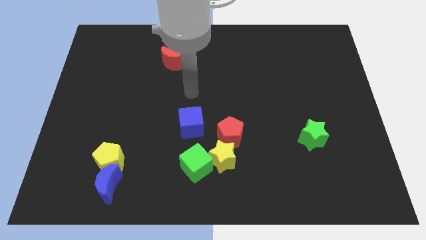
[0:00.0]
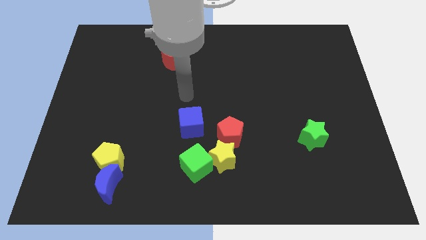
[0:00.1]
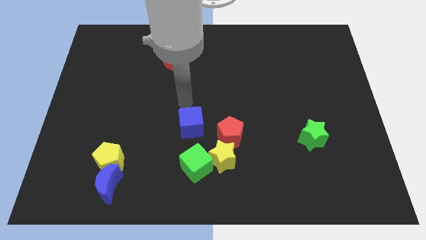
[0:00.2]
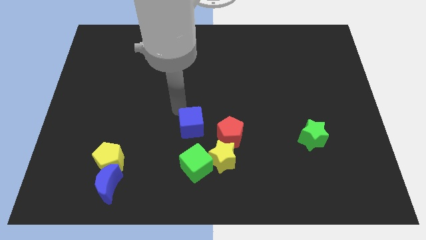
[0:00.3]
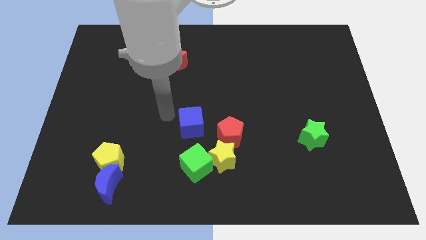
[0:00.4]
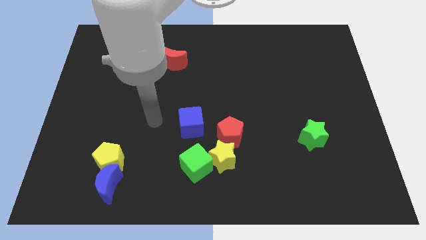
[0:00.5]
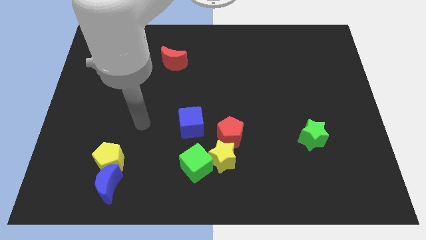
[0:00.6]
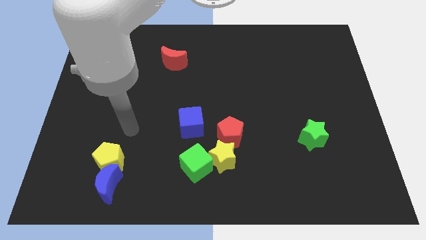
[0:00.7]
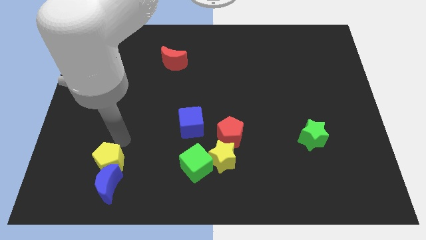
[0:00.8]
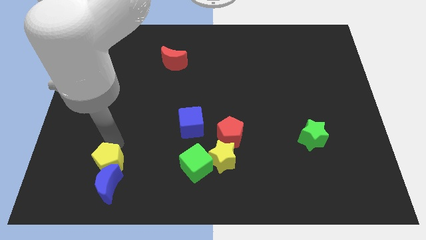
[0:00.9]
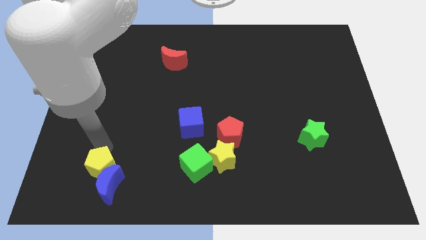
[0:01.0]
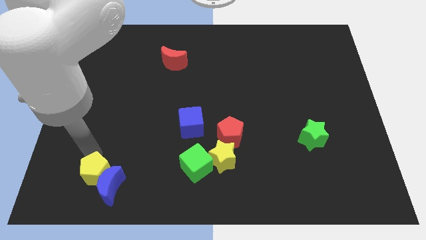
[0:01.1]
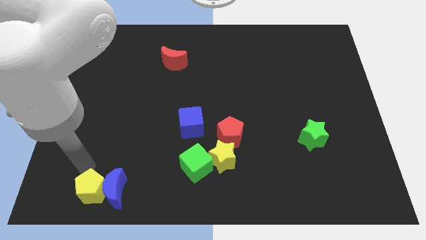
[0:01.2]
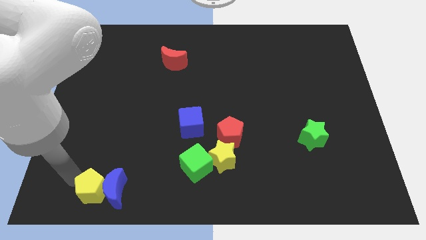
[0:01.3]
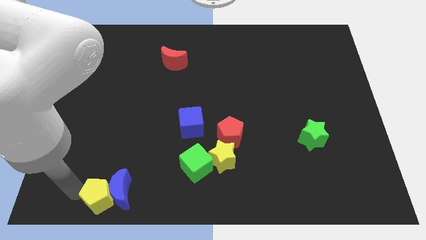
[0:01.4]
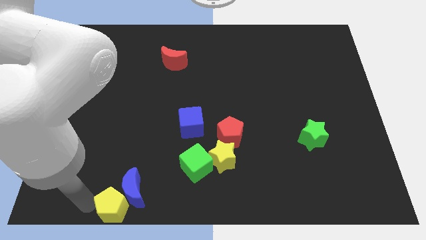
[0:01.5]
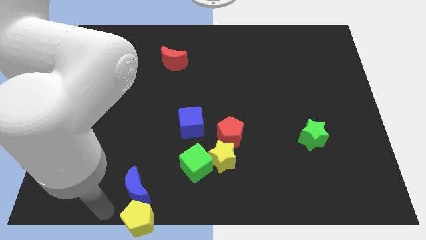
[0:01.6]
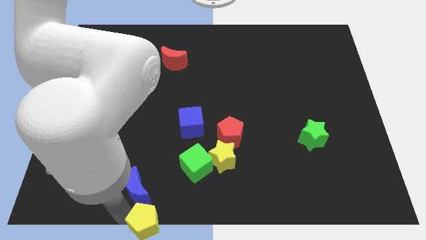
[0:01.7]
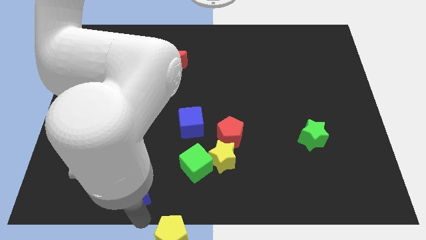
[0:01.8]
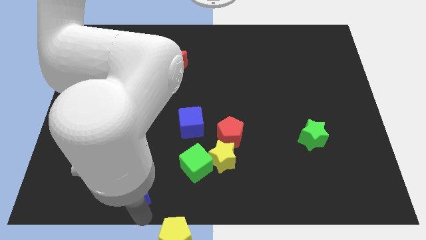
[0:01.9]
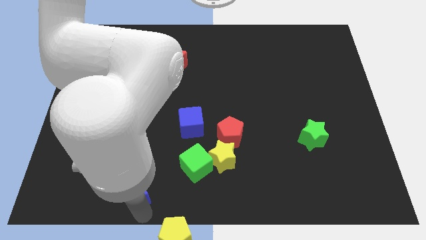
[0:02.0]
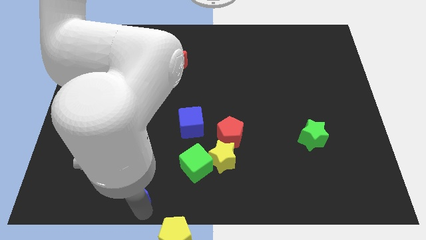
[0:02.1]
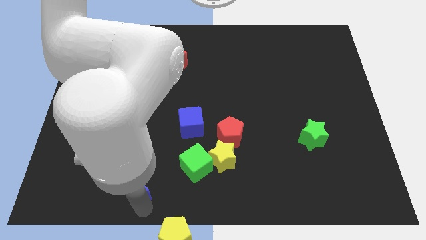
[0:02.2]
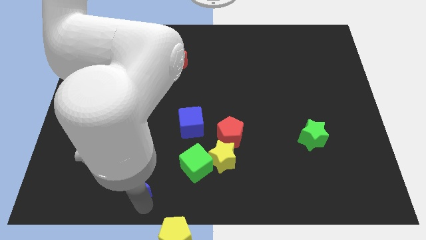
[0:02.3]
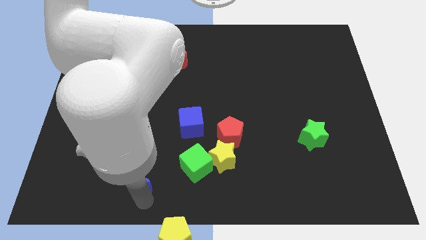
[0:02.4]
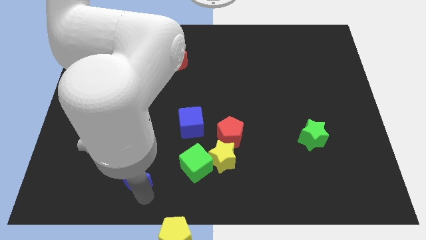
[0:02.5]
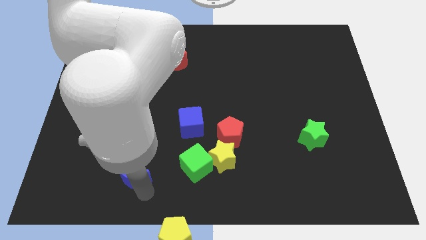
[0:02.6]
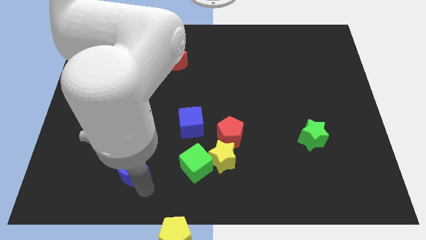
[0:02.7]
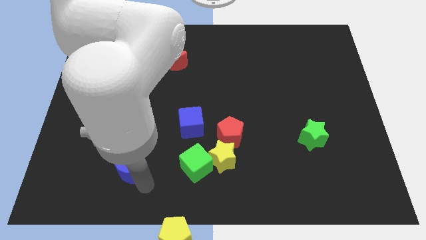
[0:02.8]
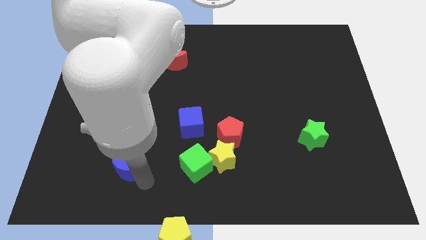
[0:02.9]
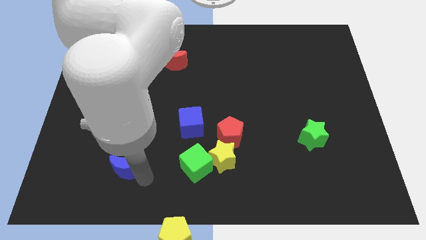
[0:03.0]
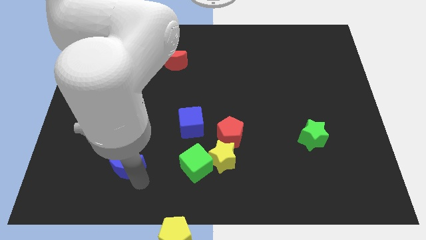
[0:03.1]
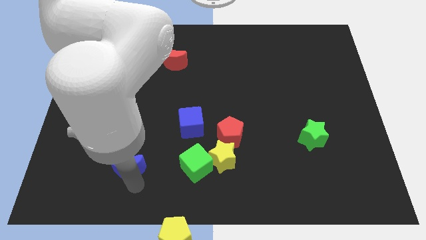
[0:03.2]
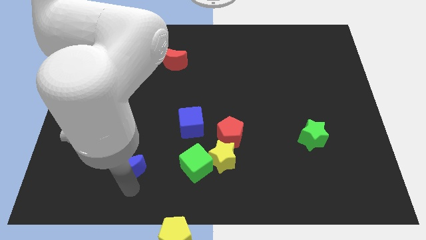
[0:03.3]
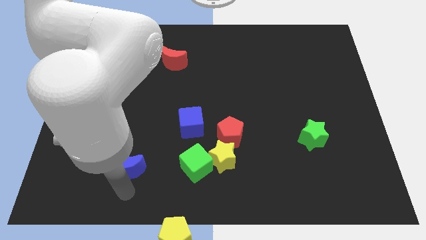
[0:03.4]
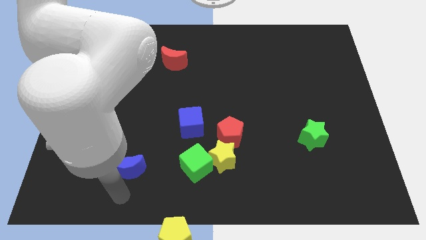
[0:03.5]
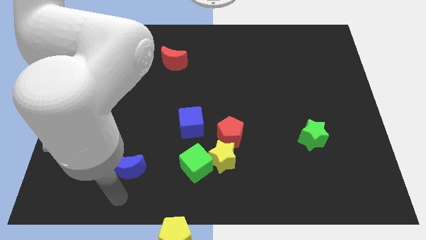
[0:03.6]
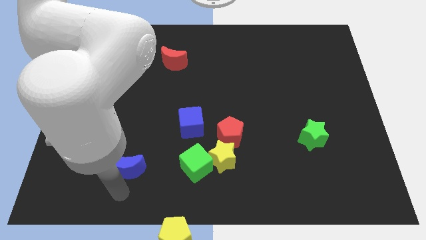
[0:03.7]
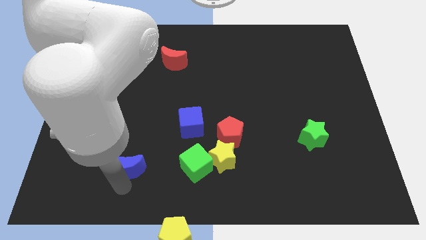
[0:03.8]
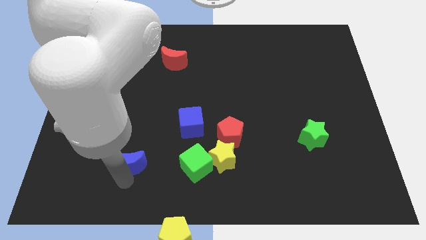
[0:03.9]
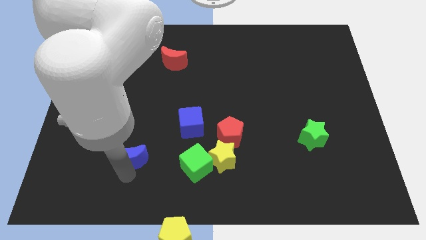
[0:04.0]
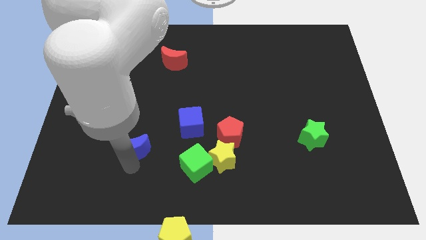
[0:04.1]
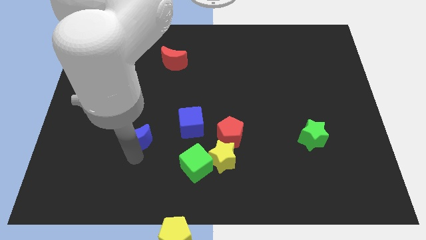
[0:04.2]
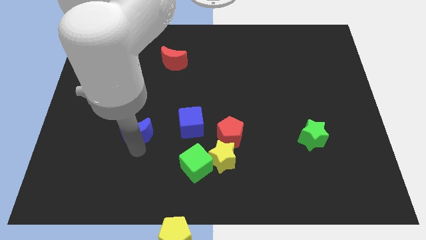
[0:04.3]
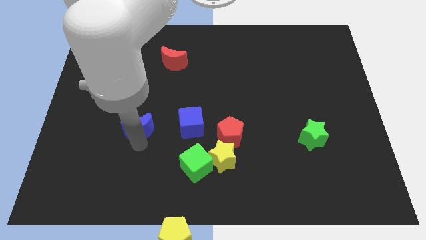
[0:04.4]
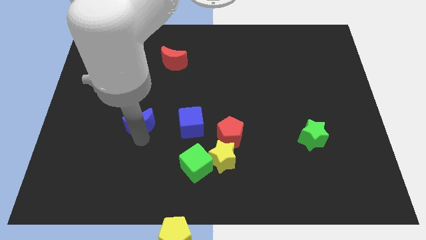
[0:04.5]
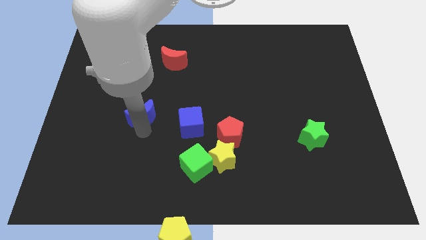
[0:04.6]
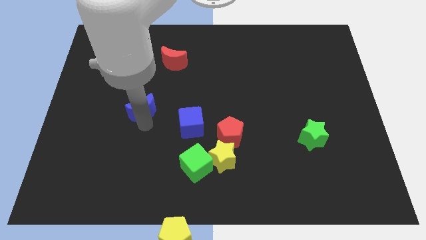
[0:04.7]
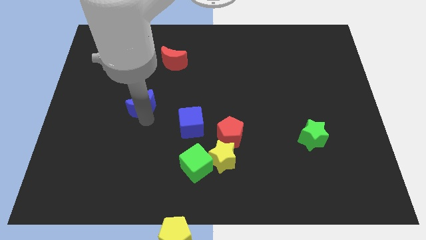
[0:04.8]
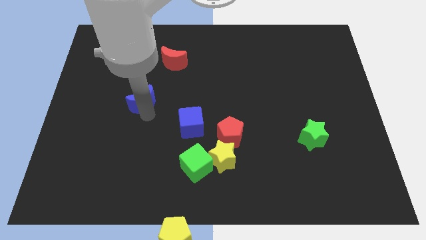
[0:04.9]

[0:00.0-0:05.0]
slide the blue moon upwards

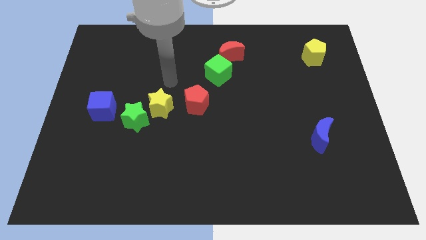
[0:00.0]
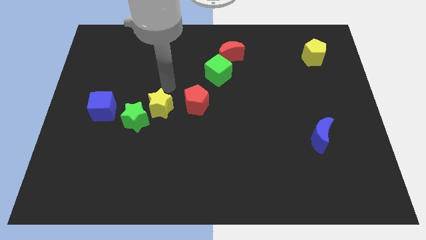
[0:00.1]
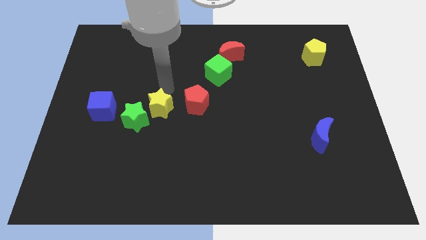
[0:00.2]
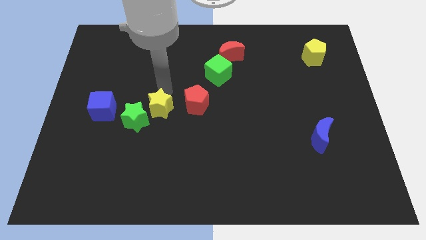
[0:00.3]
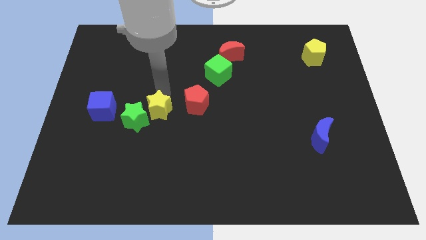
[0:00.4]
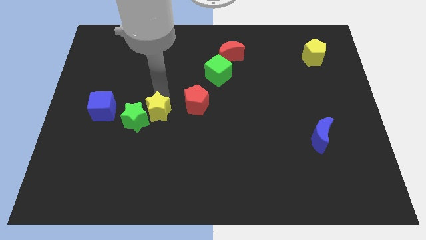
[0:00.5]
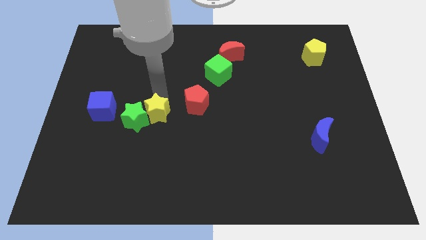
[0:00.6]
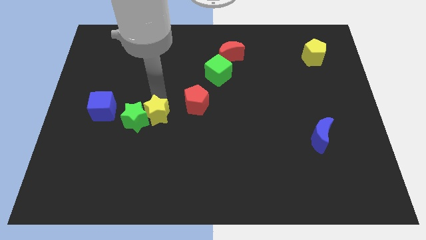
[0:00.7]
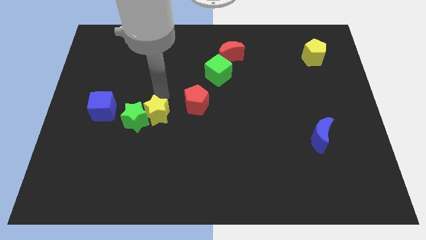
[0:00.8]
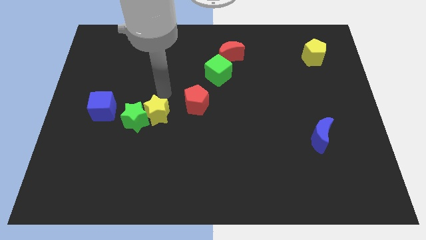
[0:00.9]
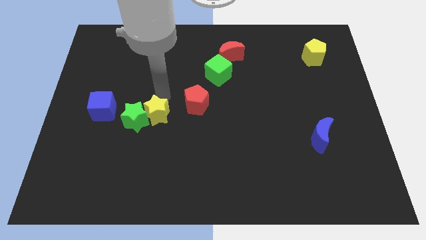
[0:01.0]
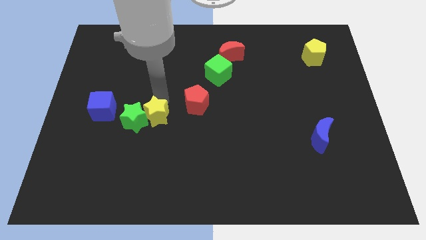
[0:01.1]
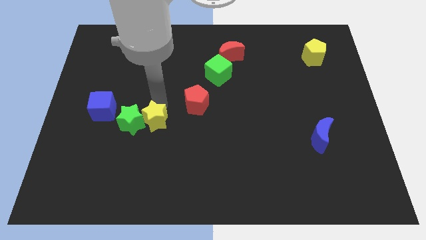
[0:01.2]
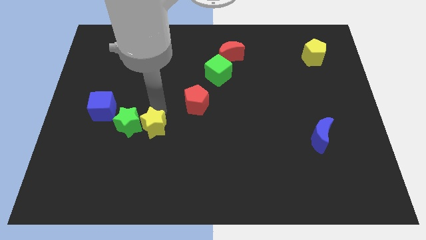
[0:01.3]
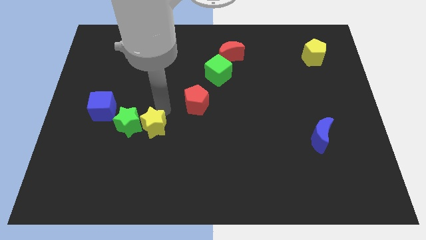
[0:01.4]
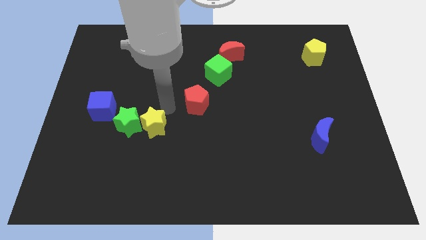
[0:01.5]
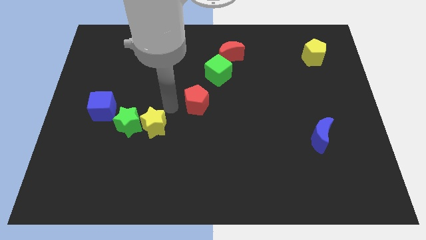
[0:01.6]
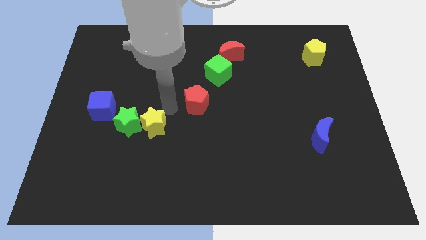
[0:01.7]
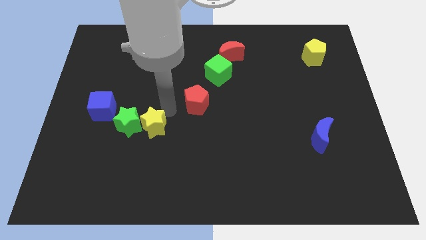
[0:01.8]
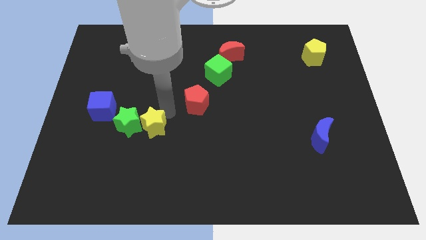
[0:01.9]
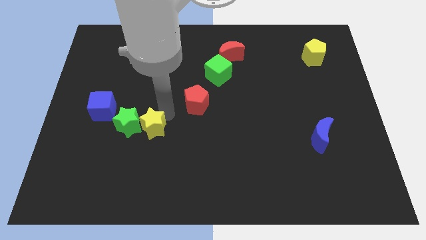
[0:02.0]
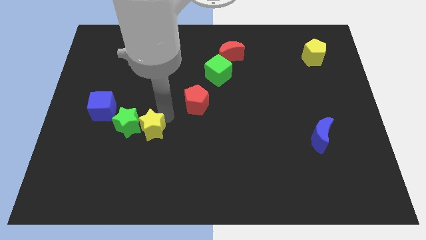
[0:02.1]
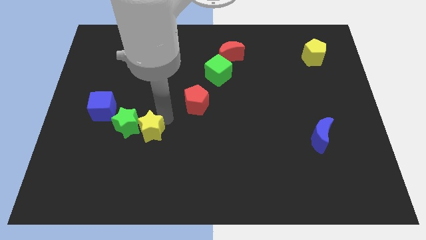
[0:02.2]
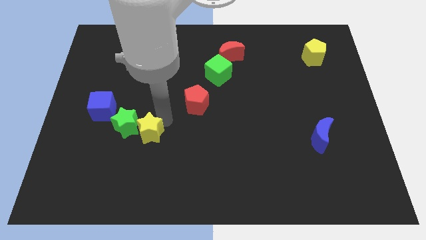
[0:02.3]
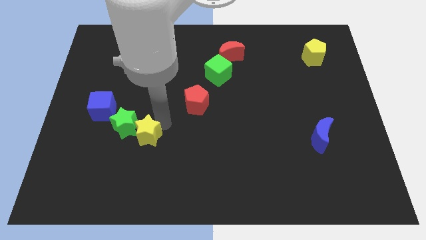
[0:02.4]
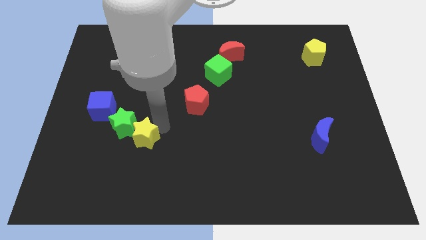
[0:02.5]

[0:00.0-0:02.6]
move the yellow star a little bit down and left

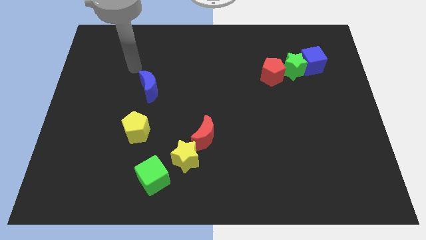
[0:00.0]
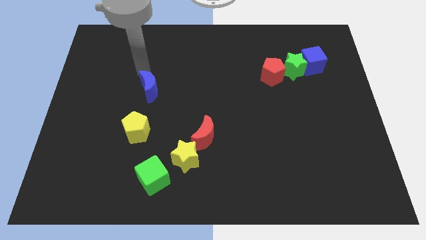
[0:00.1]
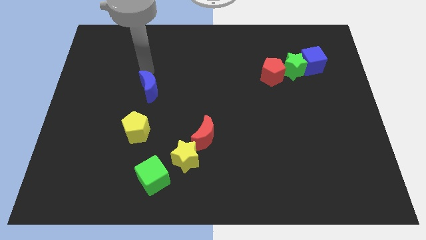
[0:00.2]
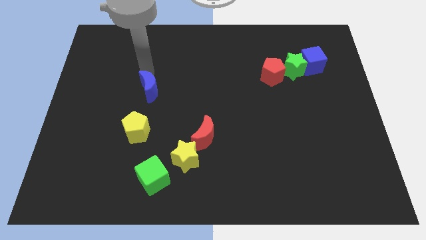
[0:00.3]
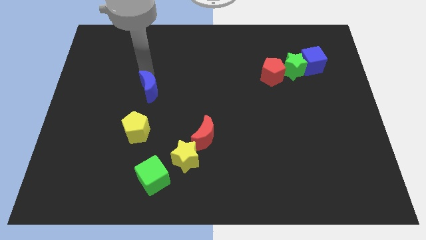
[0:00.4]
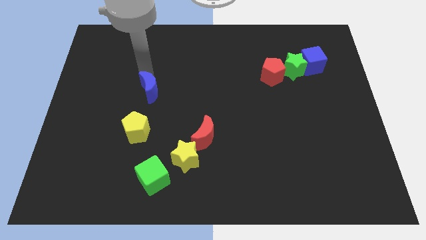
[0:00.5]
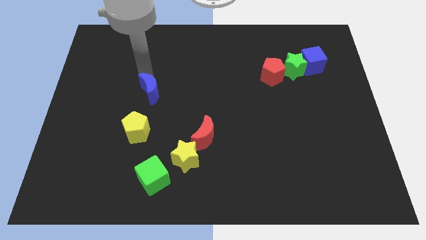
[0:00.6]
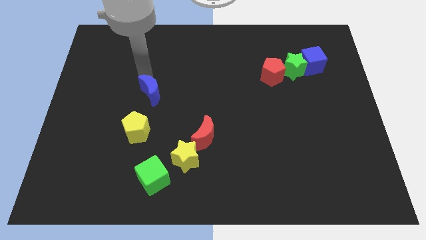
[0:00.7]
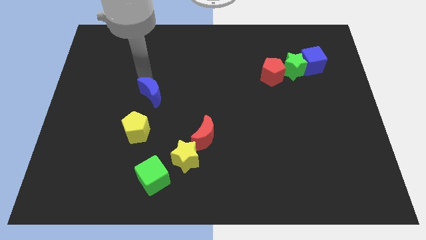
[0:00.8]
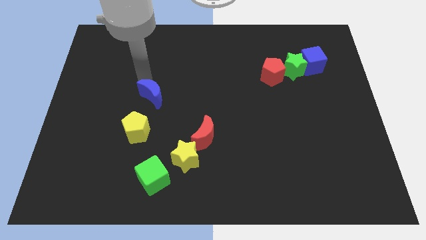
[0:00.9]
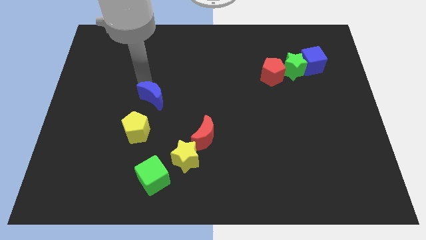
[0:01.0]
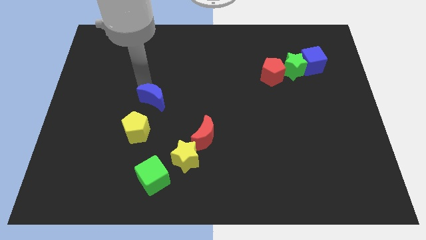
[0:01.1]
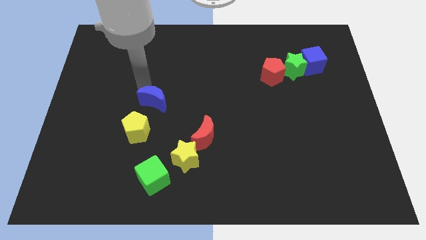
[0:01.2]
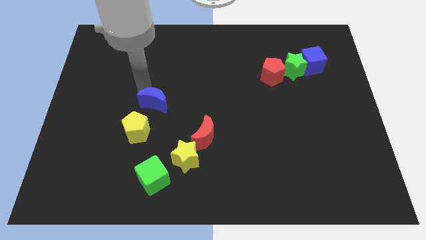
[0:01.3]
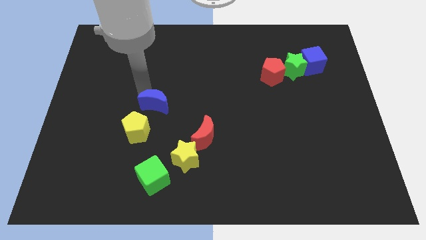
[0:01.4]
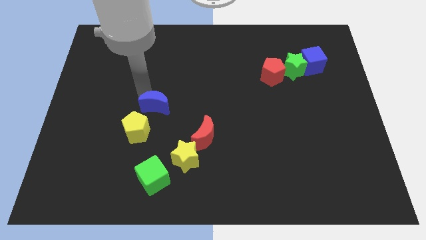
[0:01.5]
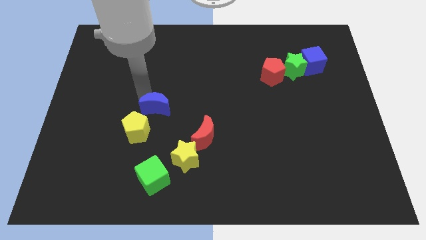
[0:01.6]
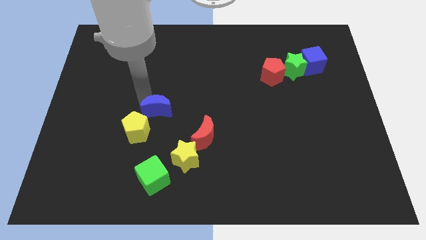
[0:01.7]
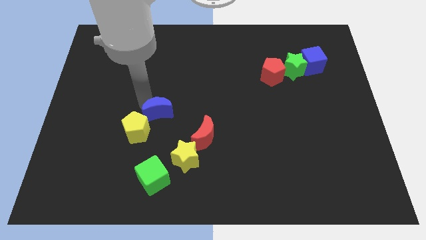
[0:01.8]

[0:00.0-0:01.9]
slightly push the blue moon down
